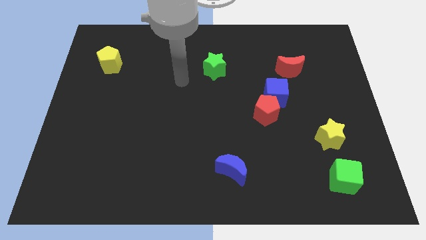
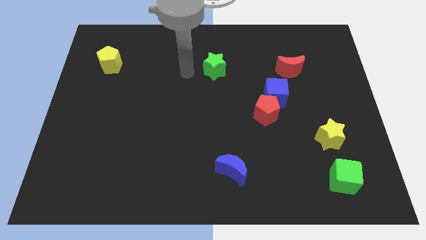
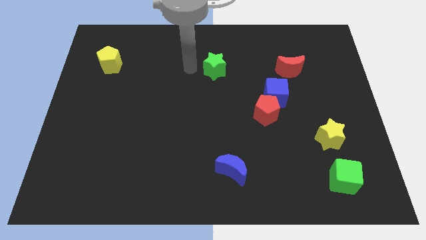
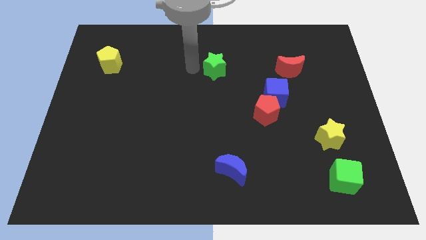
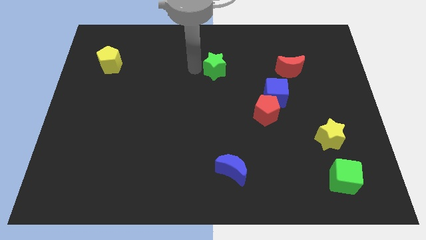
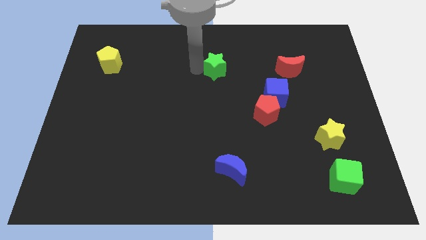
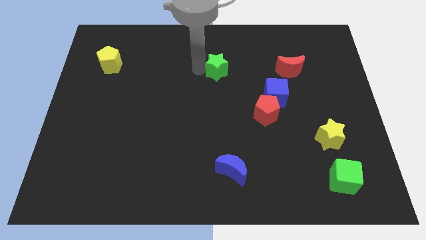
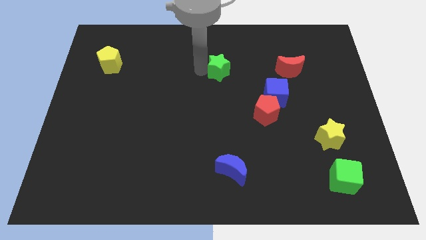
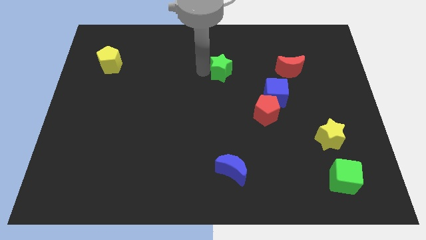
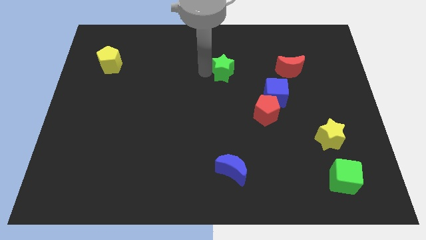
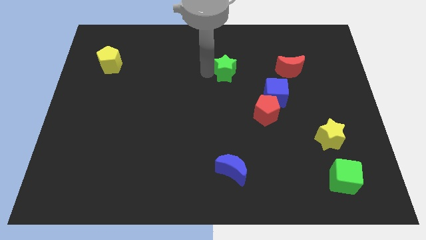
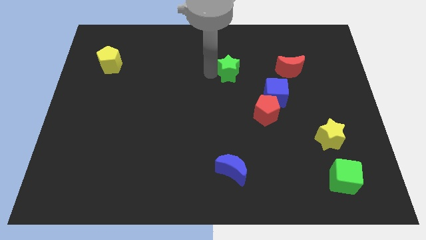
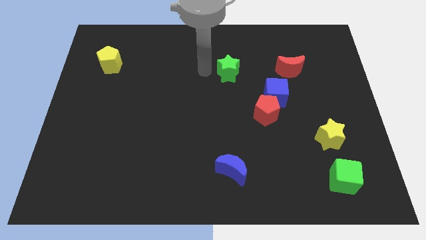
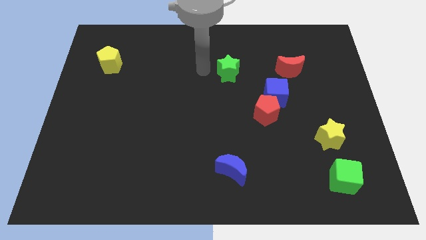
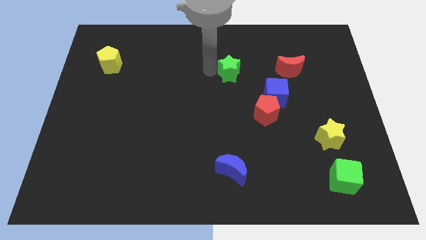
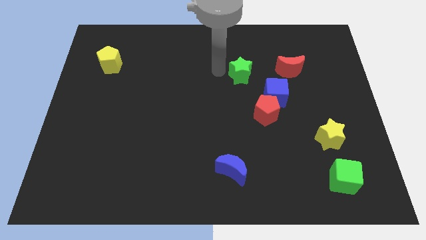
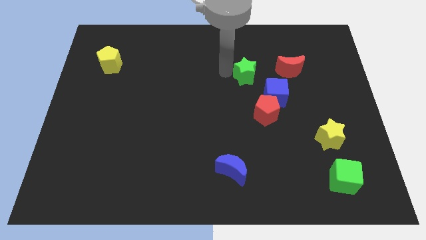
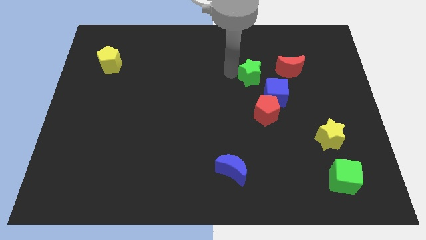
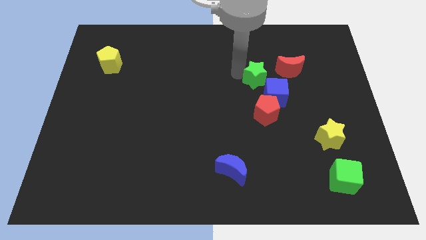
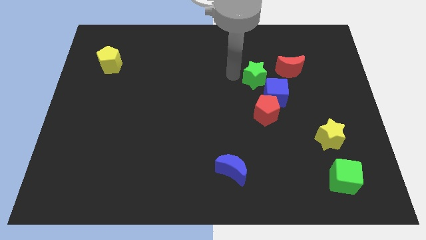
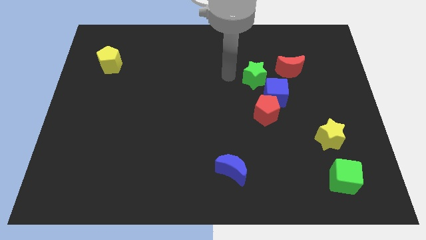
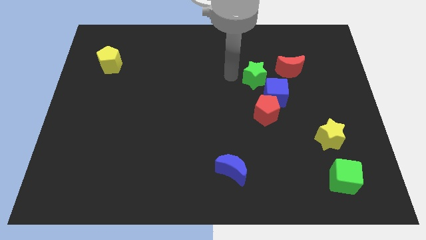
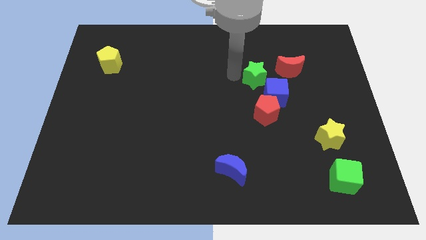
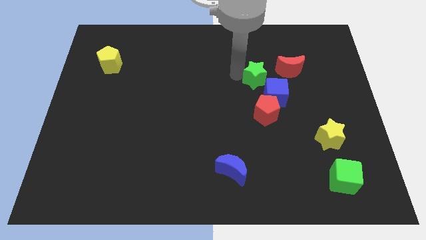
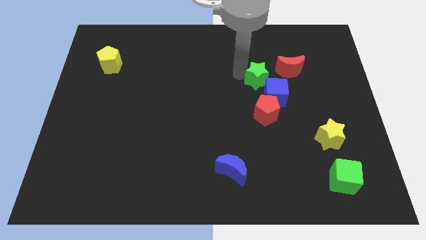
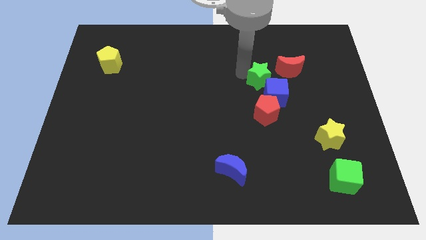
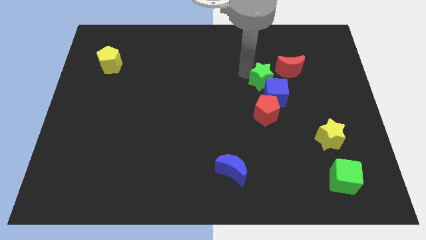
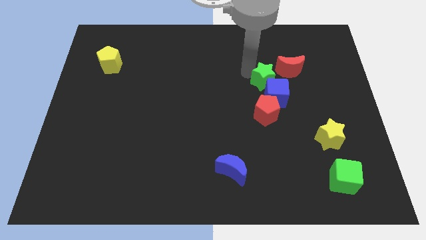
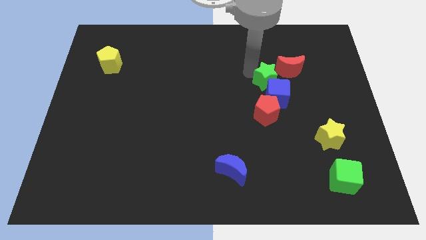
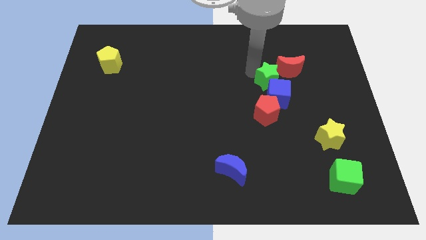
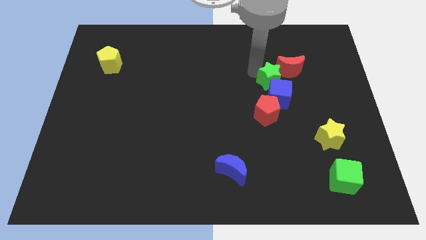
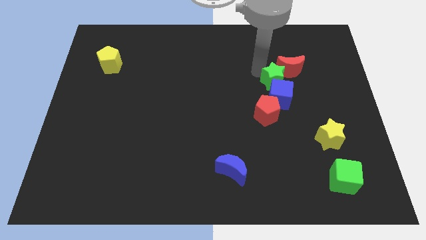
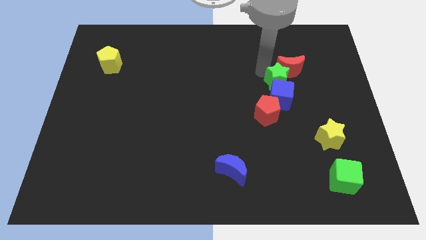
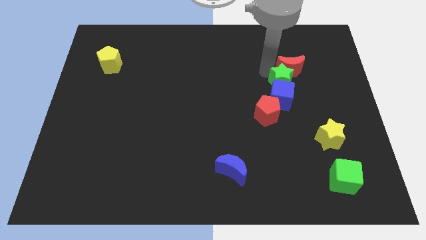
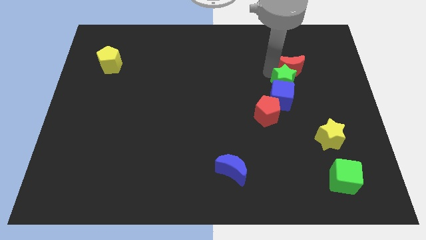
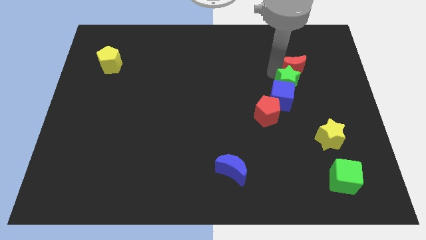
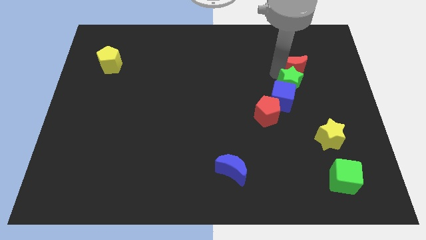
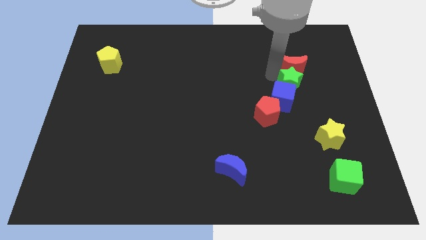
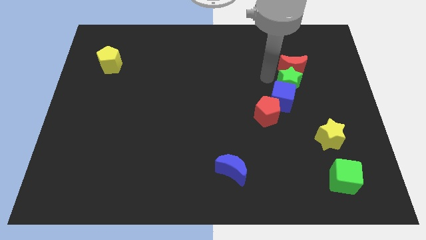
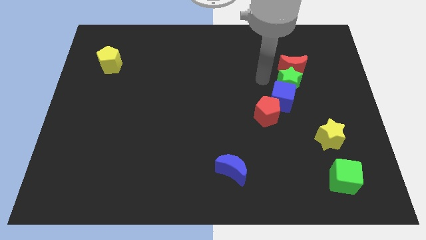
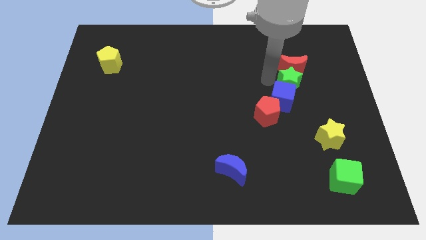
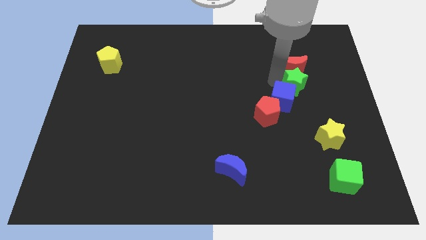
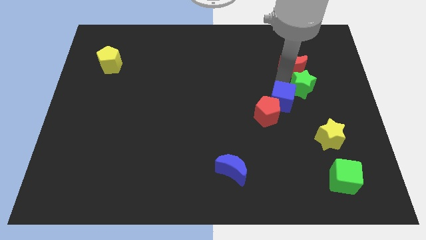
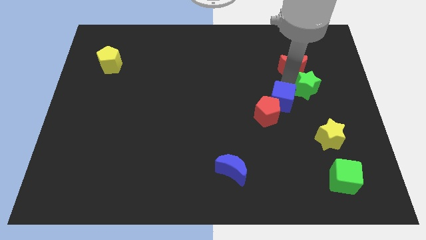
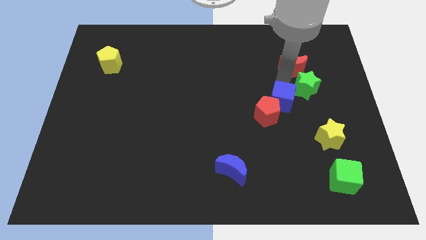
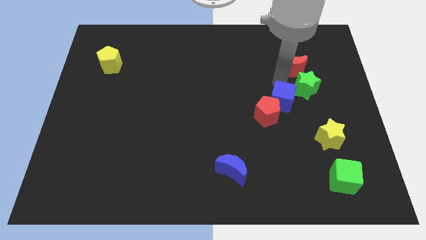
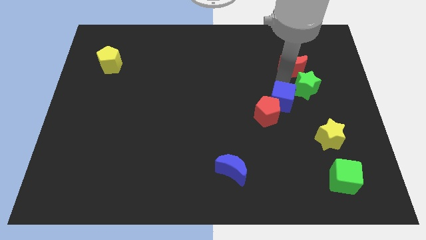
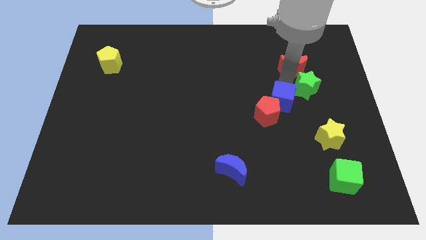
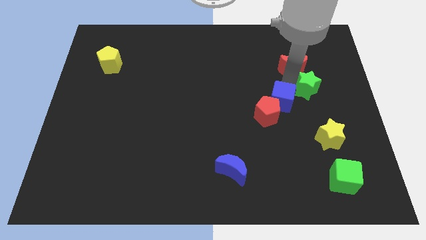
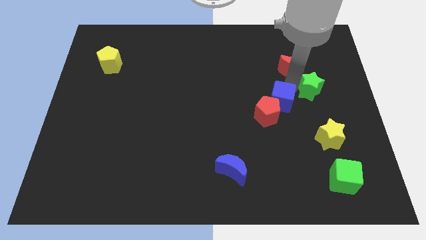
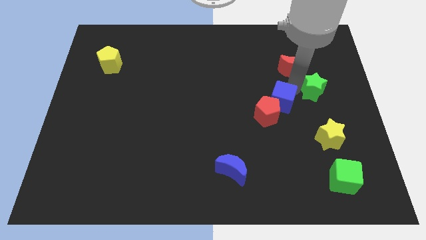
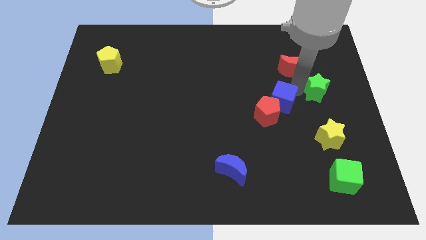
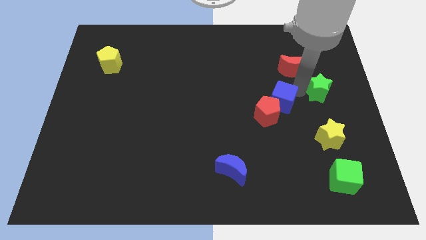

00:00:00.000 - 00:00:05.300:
move the green star to the right side of the board

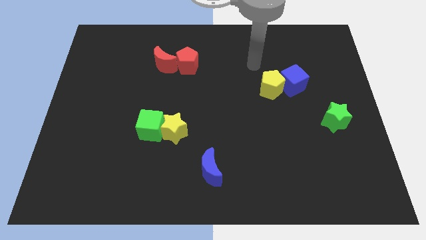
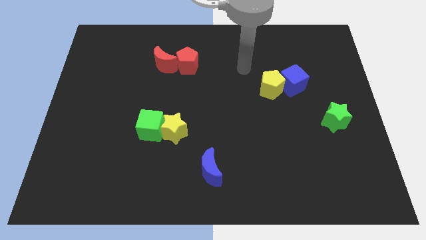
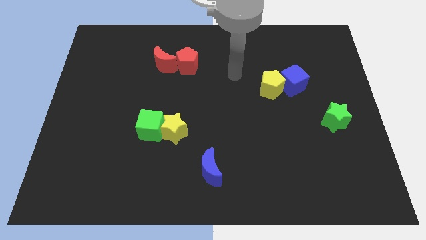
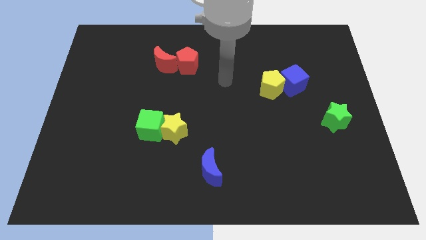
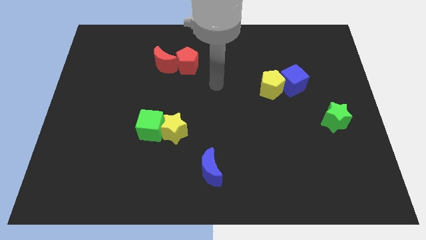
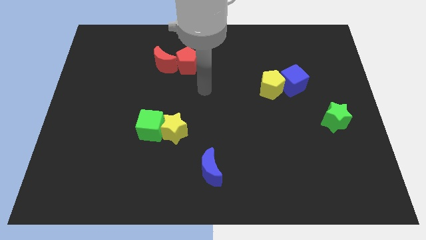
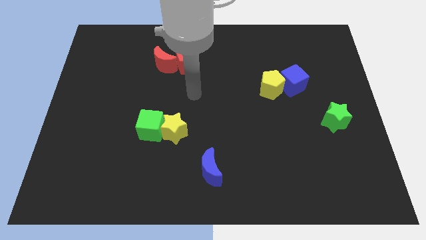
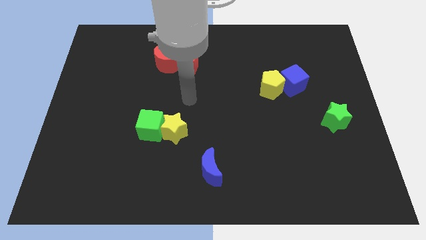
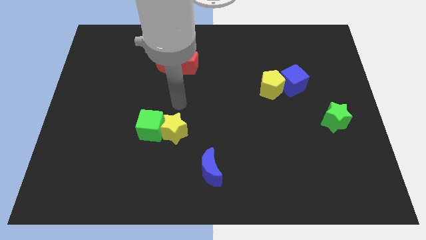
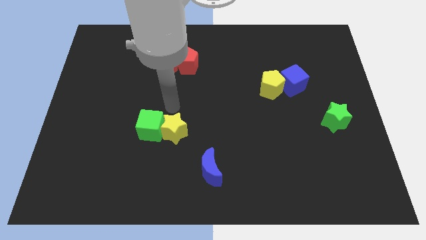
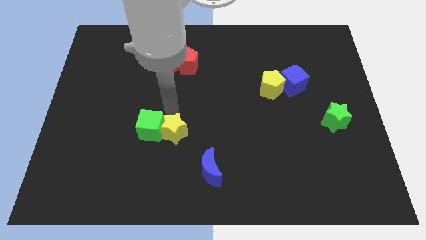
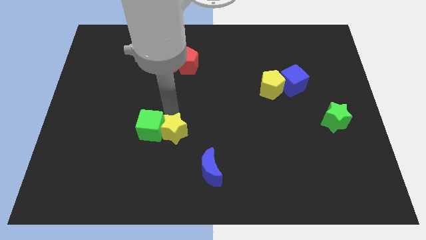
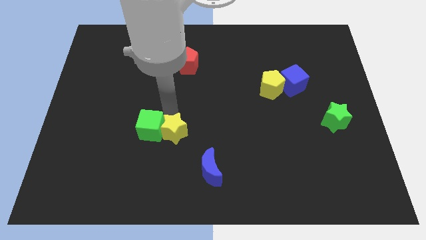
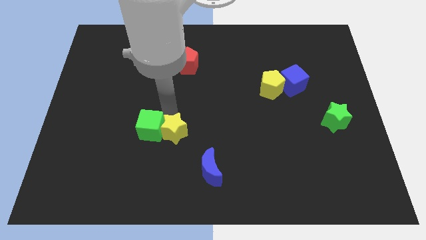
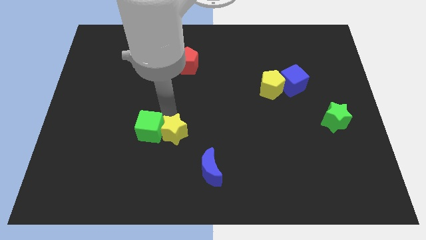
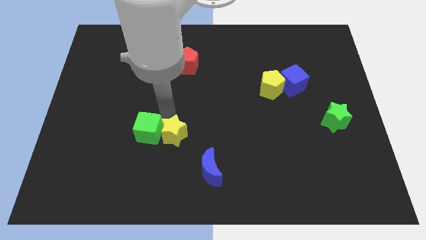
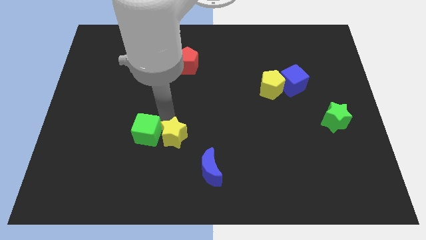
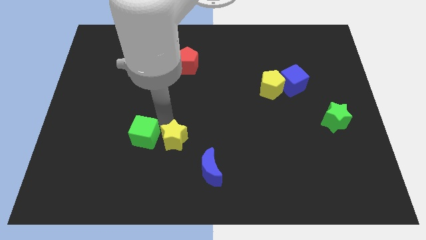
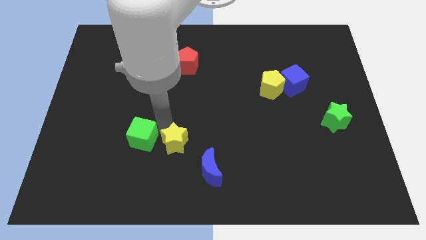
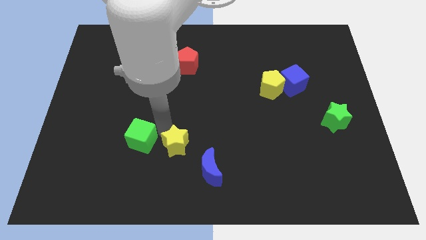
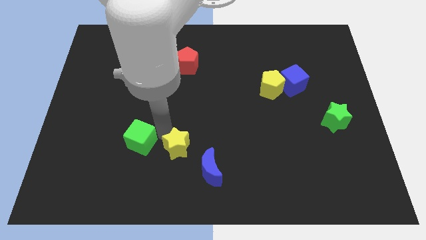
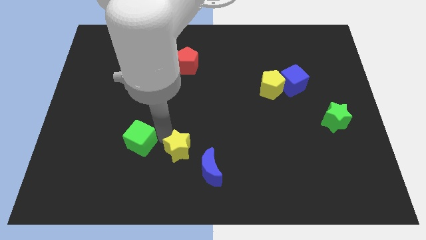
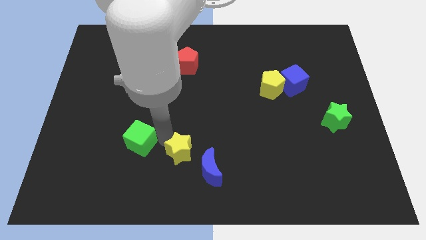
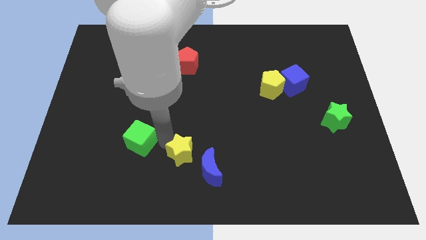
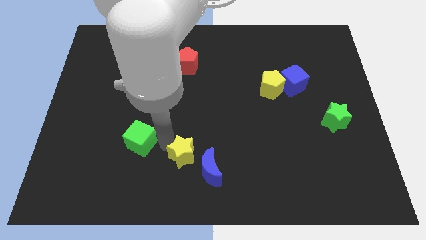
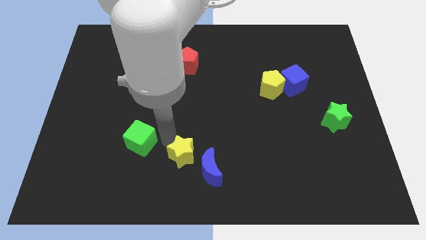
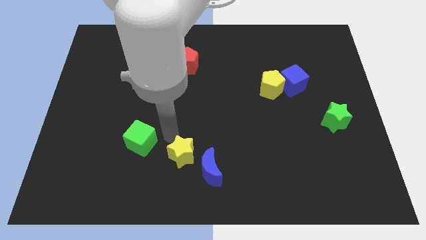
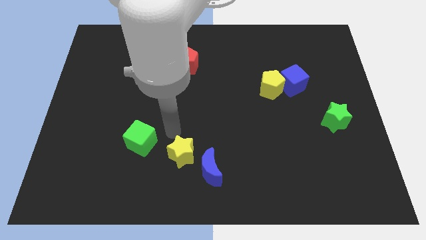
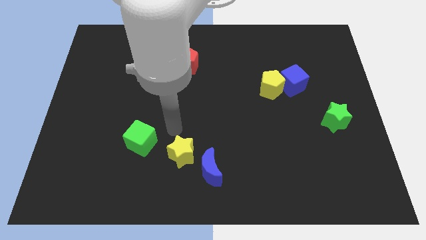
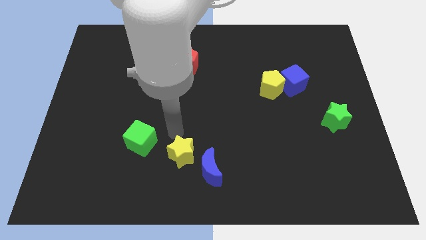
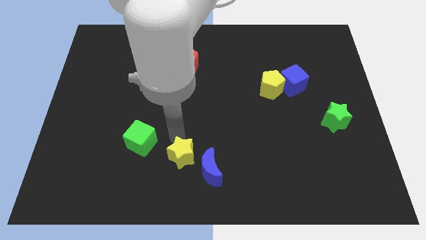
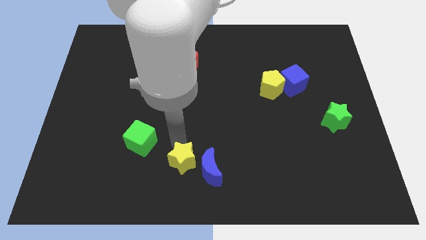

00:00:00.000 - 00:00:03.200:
push the yellow star to the bottom
